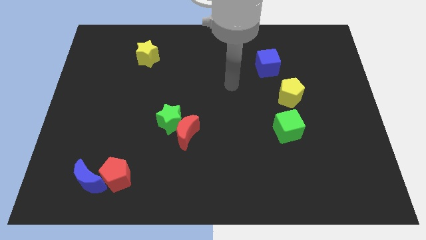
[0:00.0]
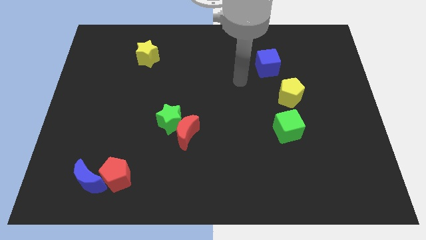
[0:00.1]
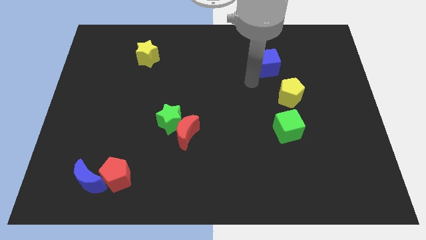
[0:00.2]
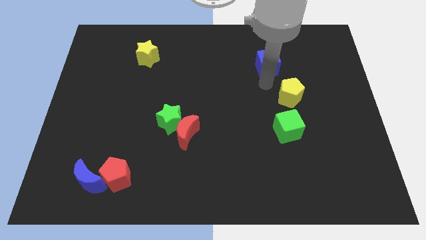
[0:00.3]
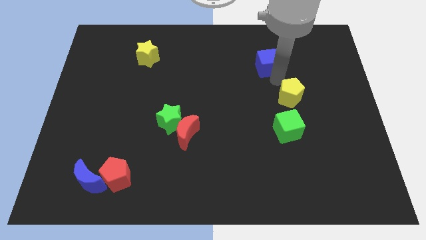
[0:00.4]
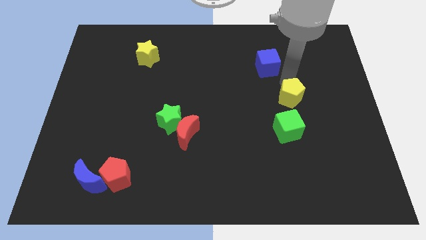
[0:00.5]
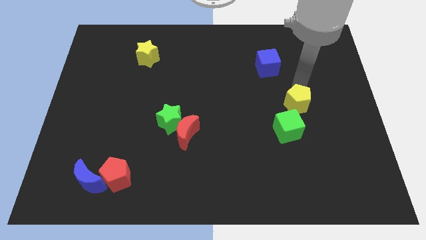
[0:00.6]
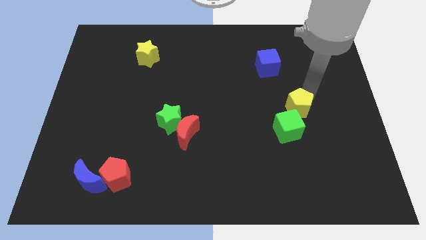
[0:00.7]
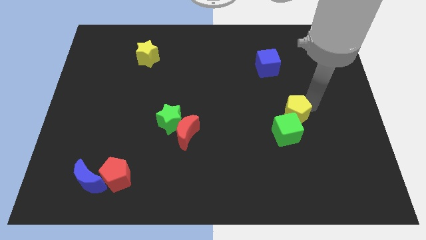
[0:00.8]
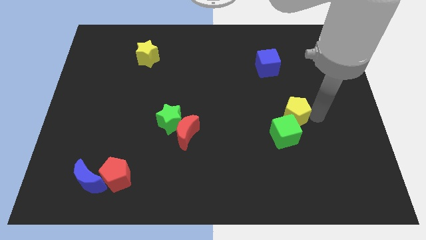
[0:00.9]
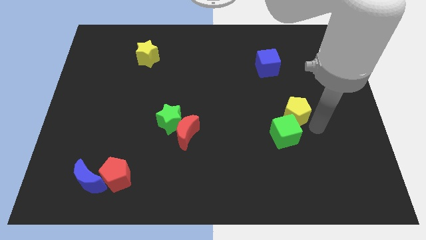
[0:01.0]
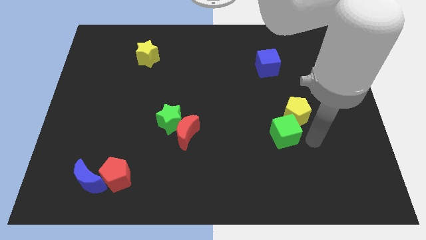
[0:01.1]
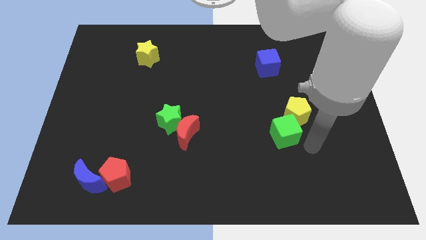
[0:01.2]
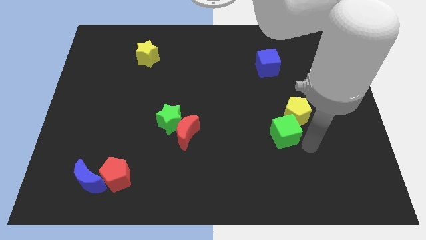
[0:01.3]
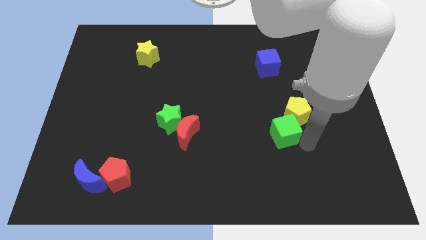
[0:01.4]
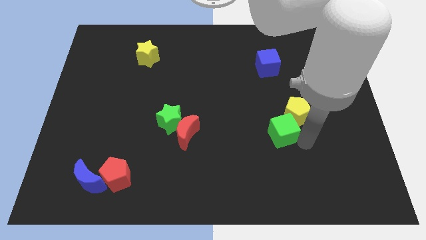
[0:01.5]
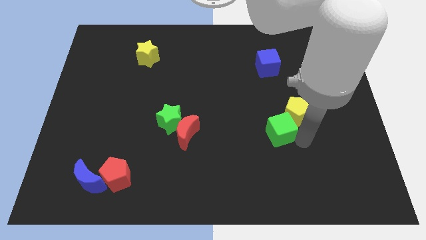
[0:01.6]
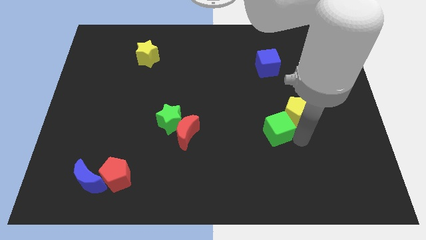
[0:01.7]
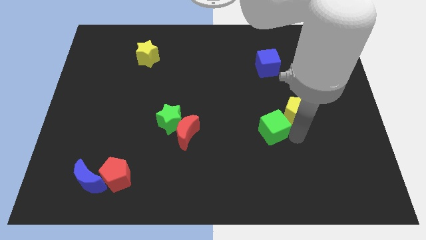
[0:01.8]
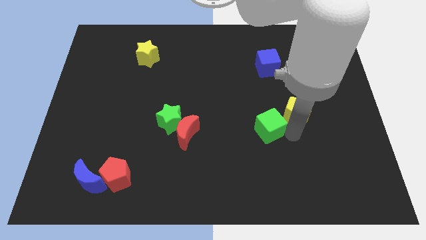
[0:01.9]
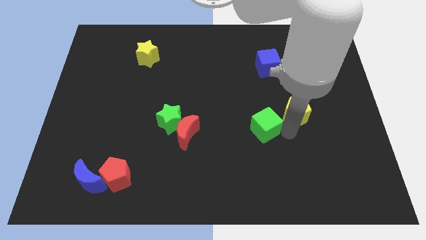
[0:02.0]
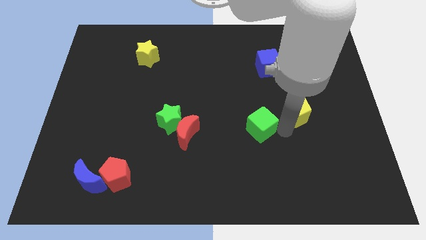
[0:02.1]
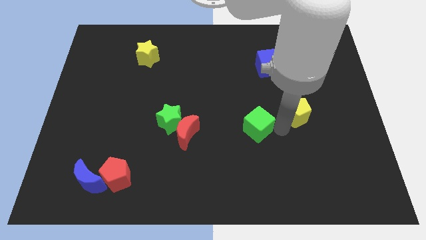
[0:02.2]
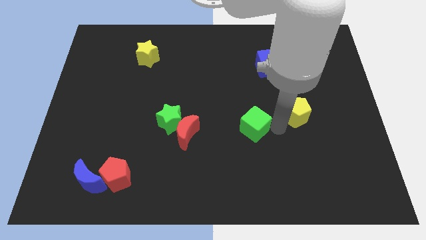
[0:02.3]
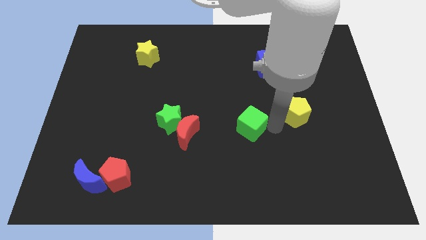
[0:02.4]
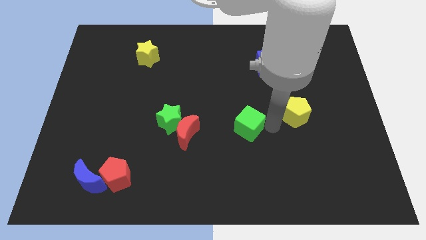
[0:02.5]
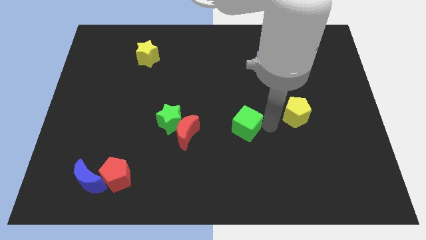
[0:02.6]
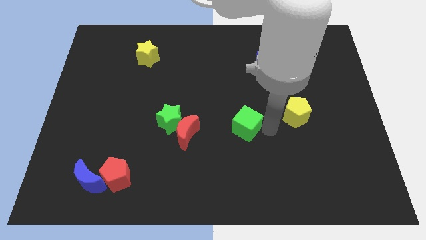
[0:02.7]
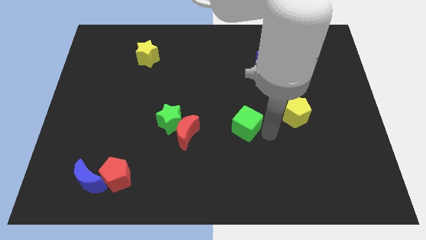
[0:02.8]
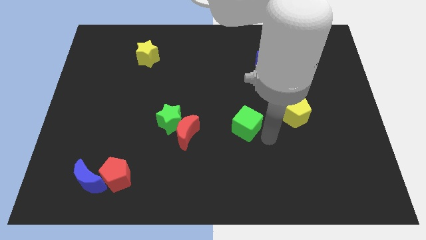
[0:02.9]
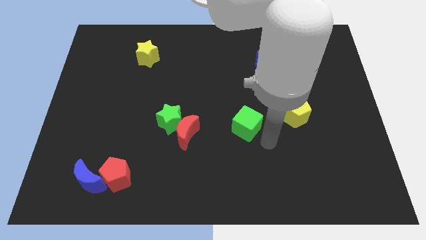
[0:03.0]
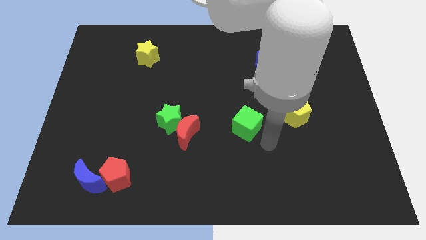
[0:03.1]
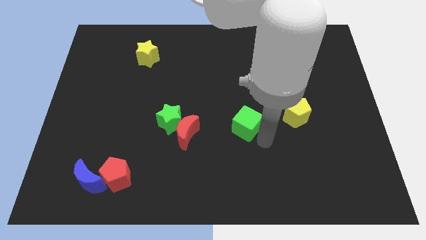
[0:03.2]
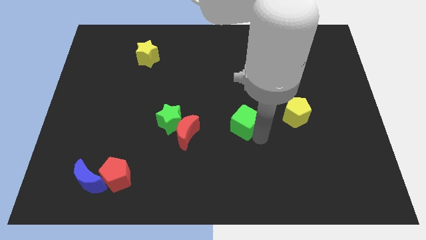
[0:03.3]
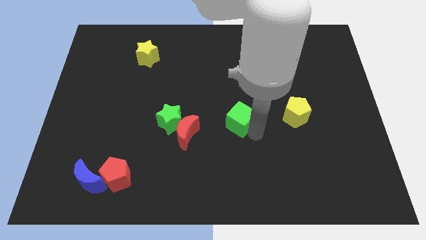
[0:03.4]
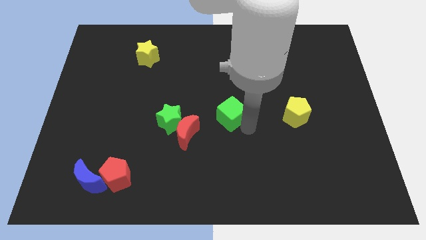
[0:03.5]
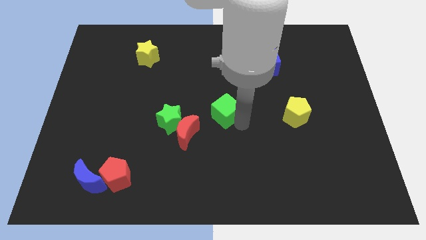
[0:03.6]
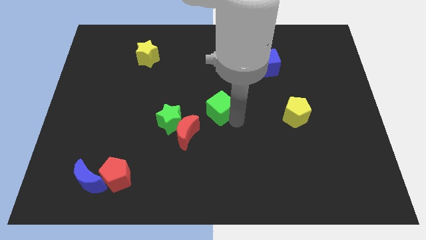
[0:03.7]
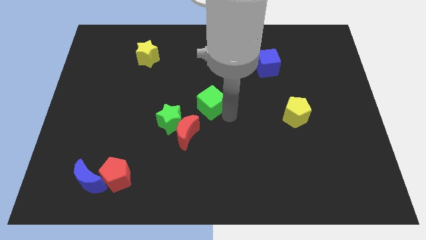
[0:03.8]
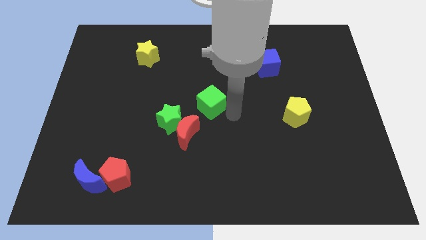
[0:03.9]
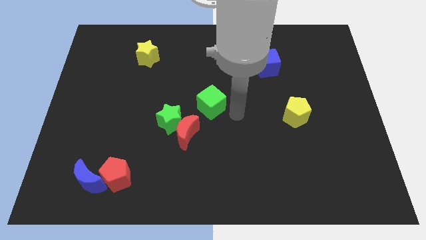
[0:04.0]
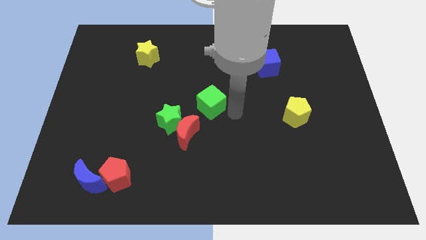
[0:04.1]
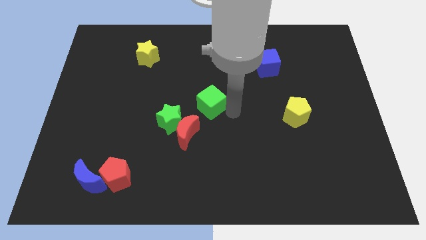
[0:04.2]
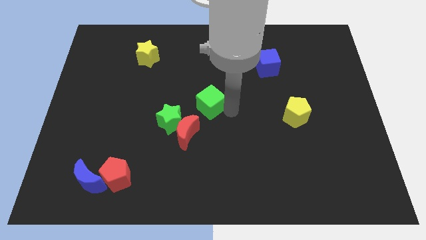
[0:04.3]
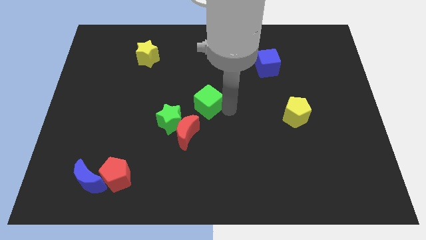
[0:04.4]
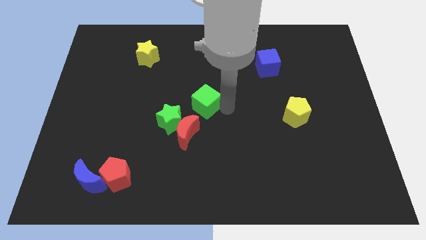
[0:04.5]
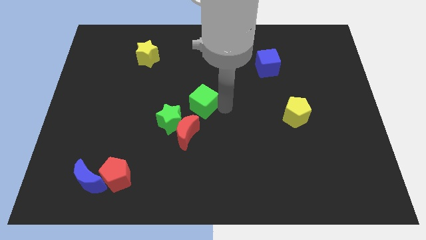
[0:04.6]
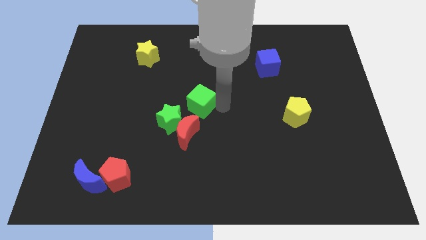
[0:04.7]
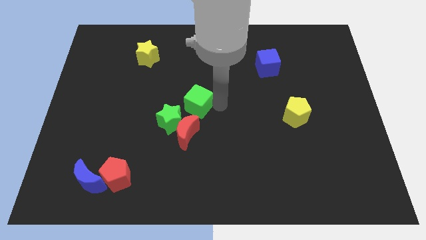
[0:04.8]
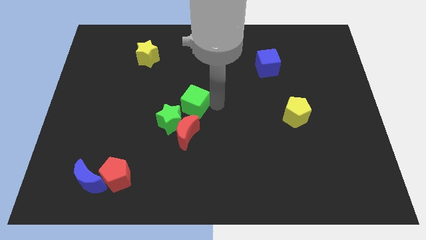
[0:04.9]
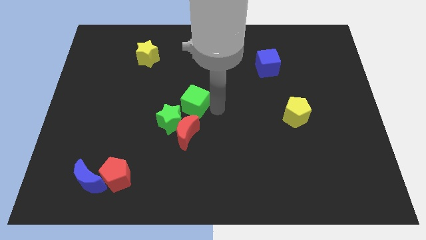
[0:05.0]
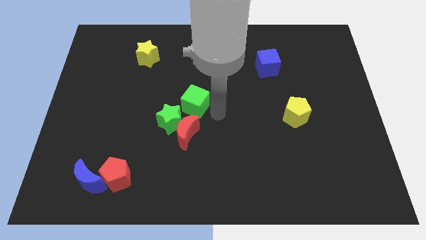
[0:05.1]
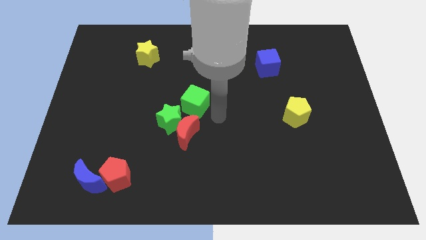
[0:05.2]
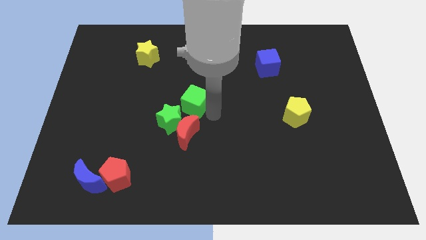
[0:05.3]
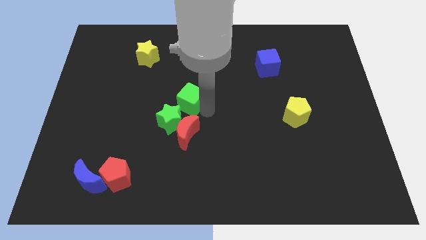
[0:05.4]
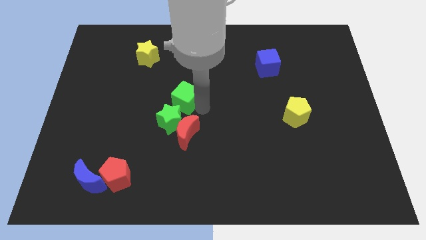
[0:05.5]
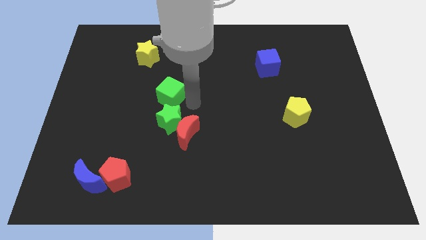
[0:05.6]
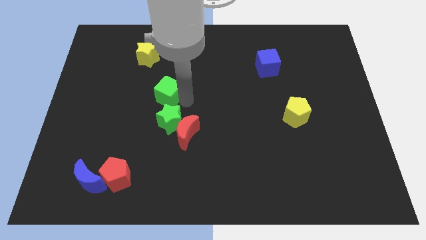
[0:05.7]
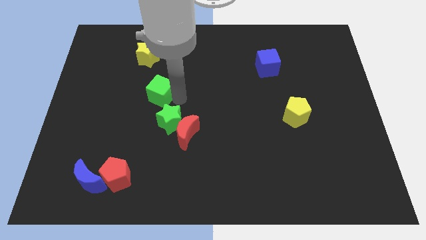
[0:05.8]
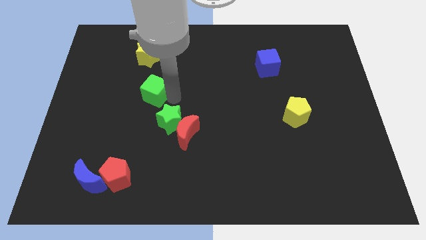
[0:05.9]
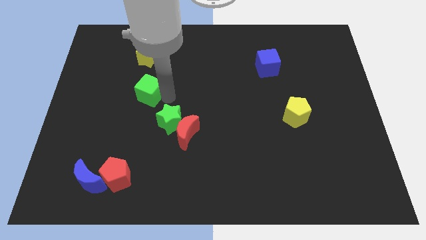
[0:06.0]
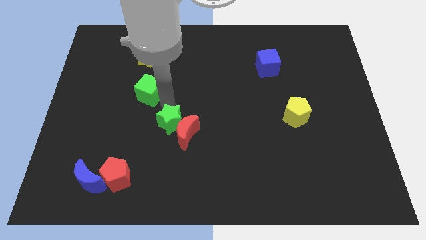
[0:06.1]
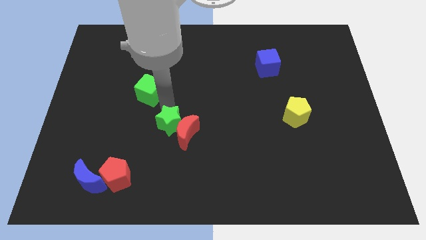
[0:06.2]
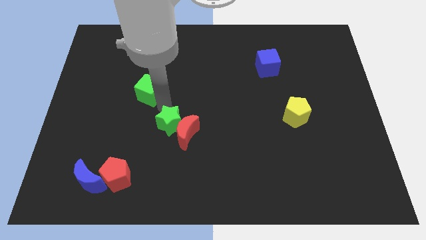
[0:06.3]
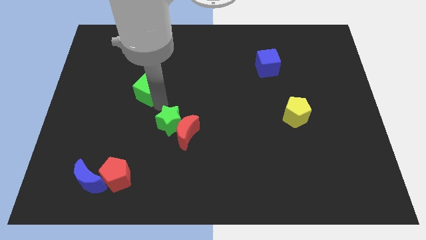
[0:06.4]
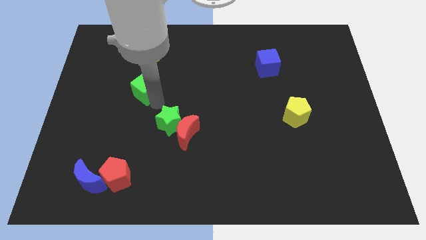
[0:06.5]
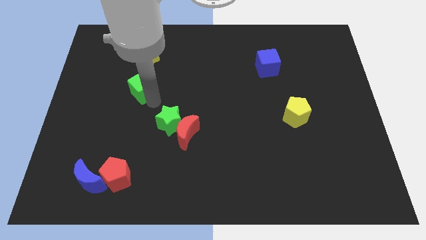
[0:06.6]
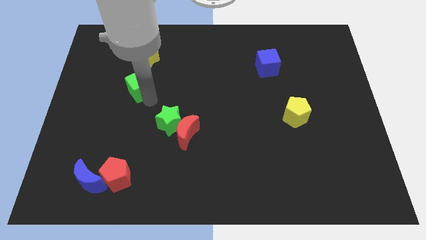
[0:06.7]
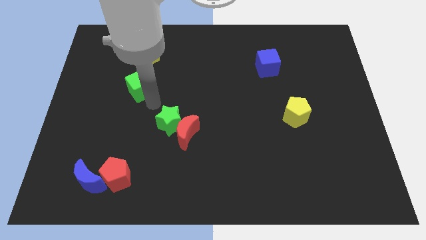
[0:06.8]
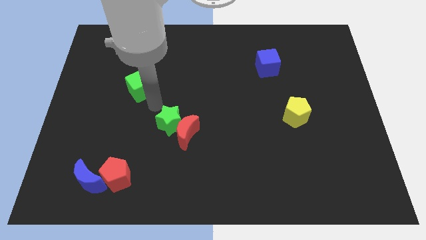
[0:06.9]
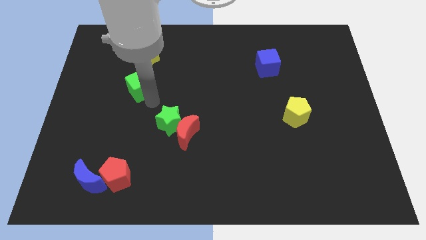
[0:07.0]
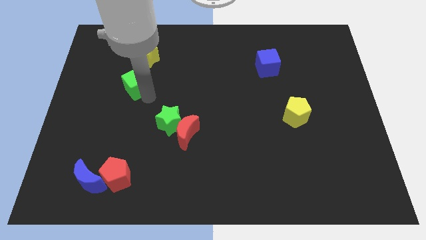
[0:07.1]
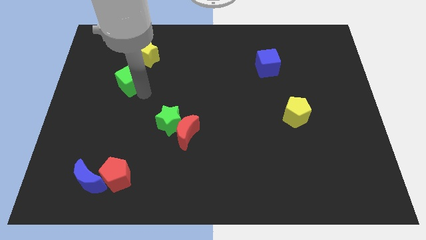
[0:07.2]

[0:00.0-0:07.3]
put the green cube diagonally down and to the left of the yellow star
